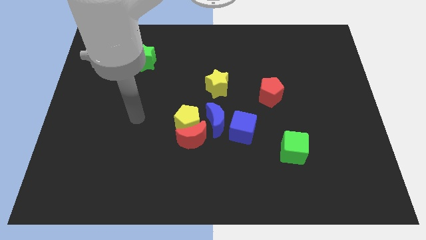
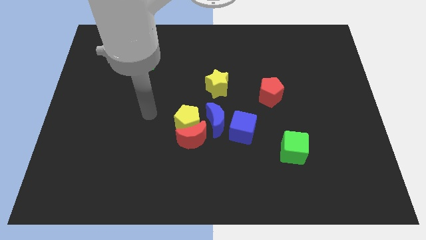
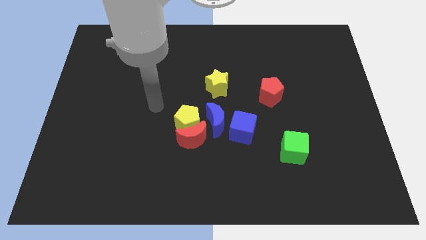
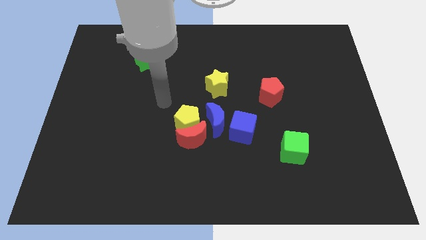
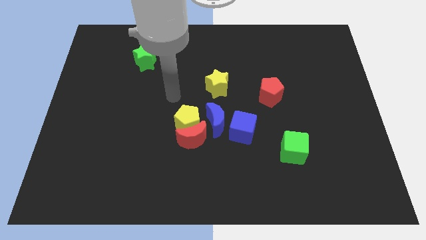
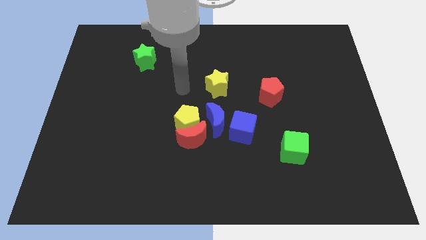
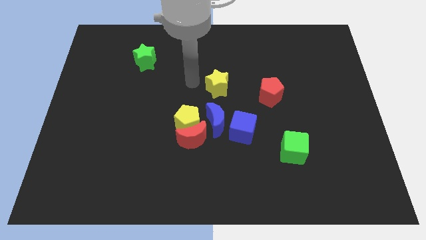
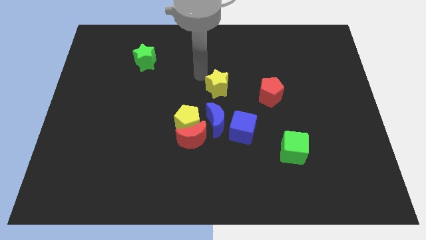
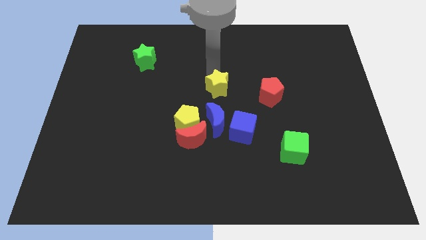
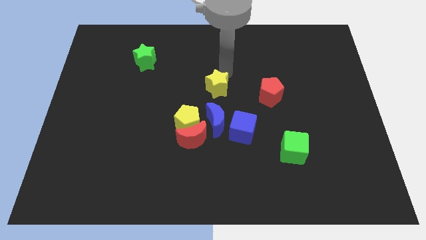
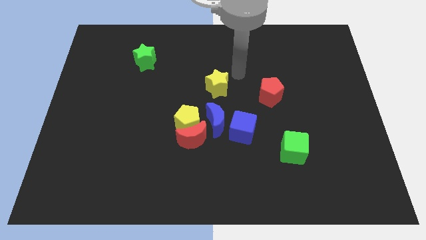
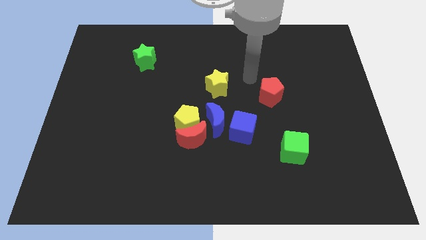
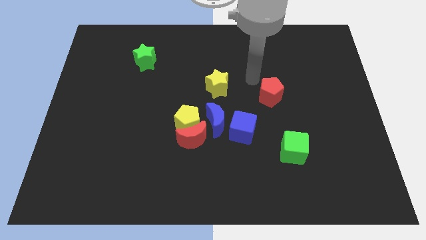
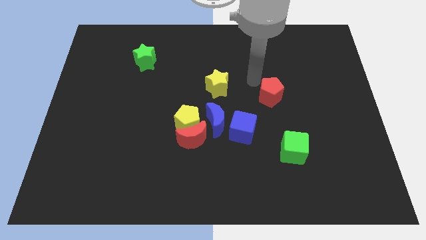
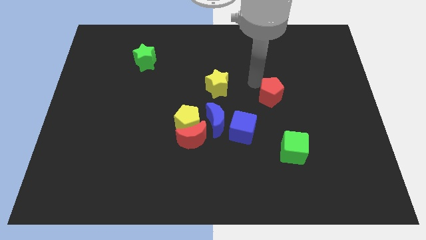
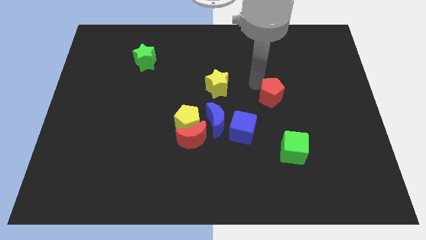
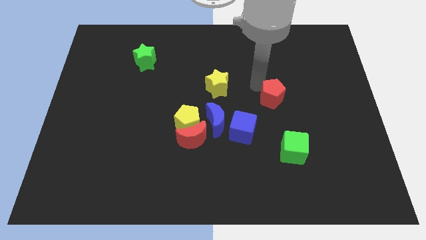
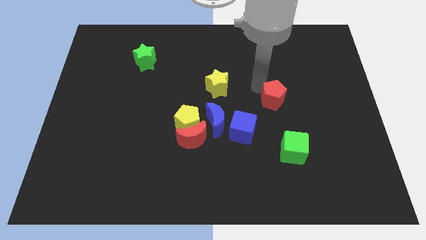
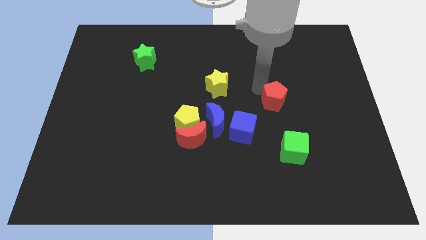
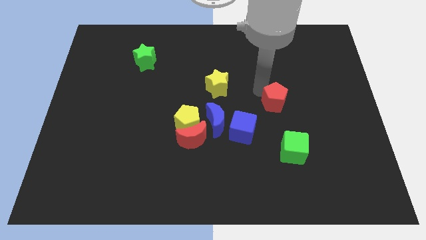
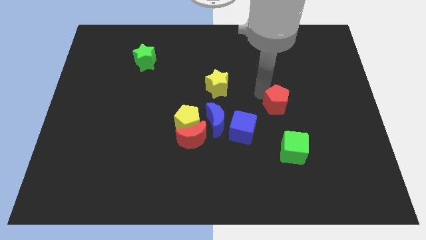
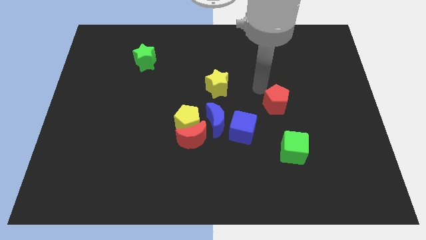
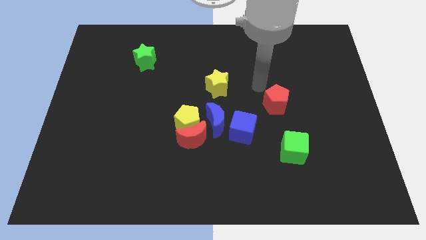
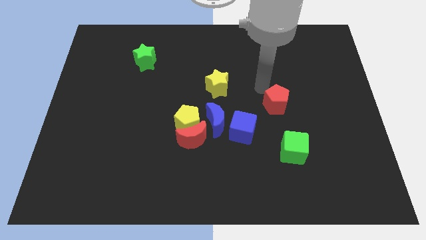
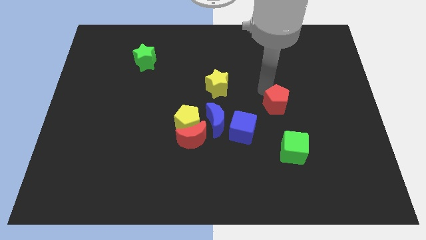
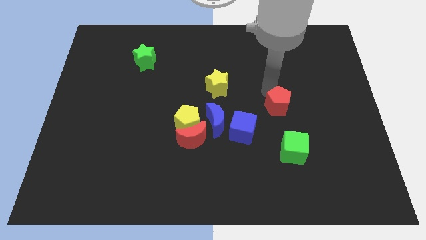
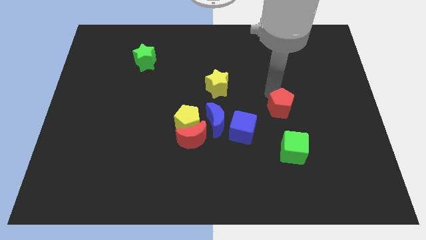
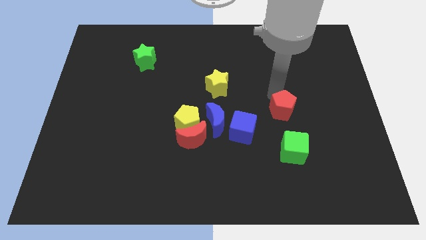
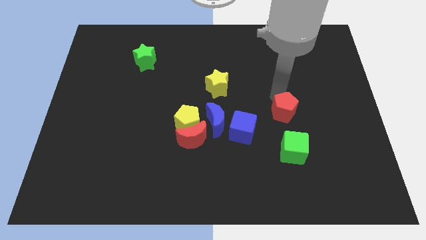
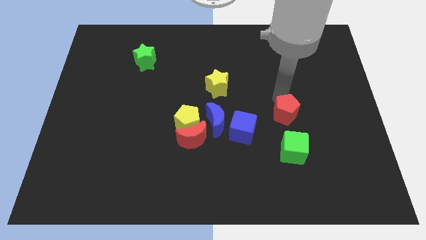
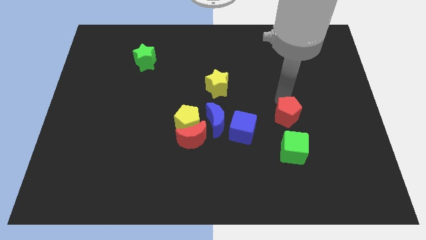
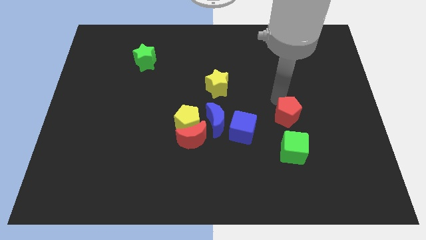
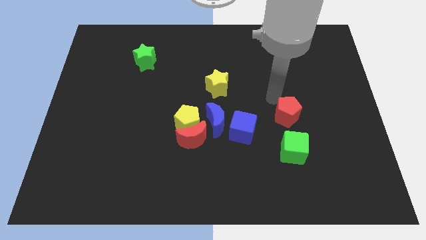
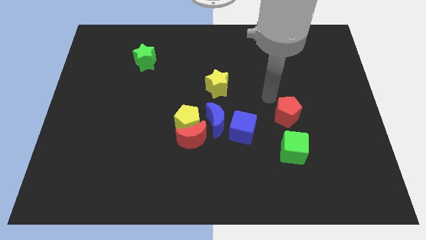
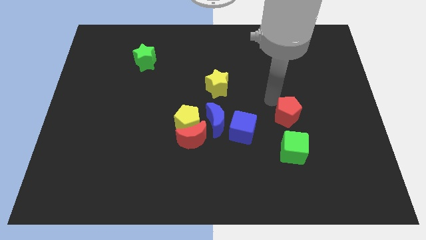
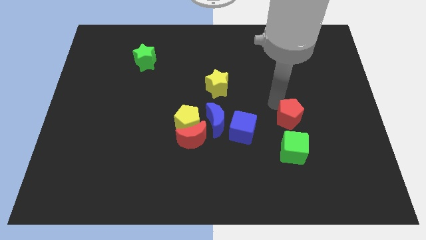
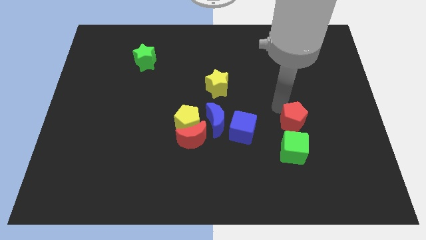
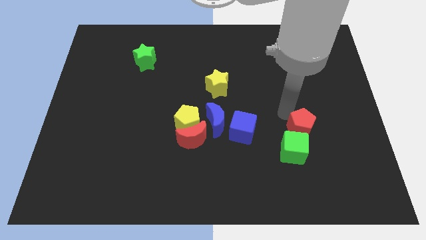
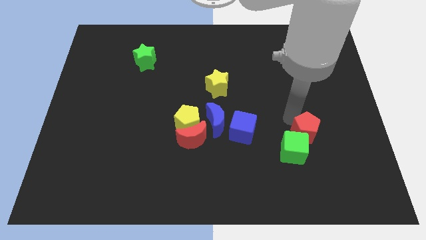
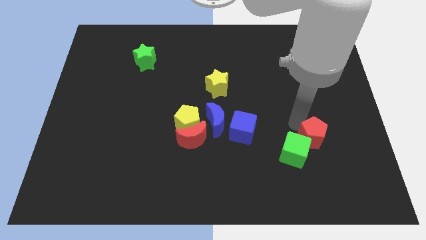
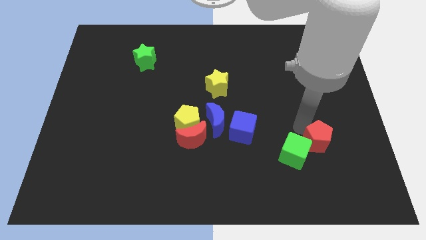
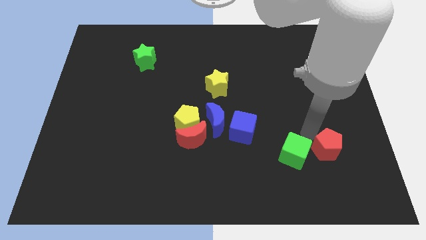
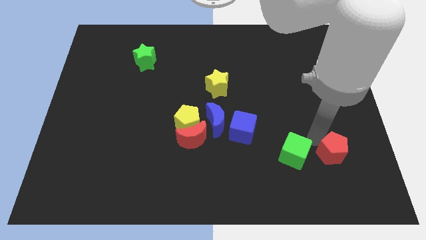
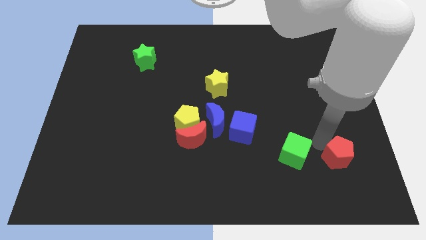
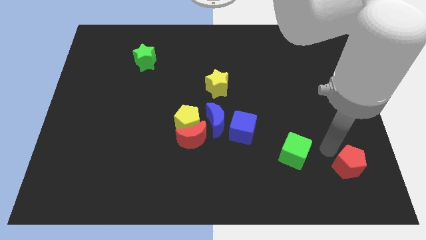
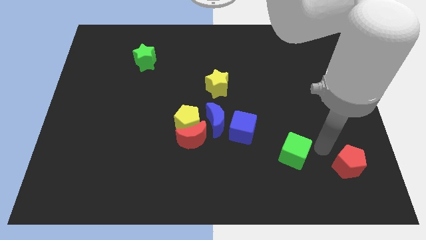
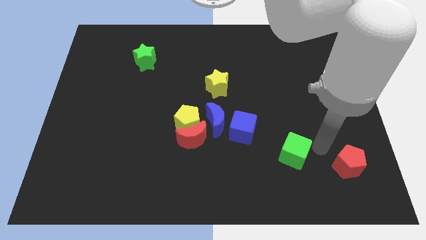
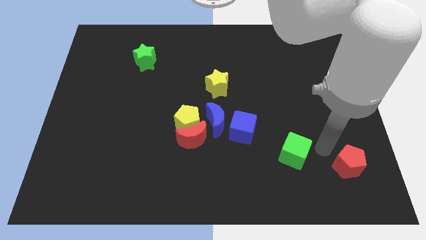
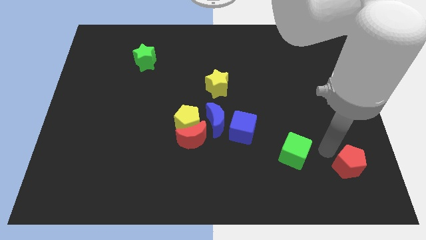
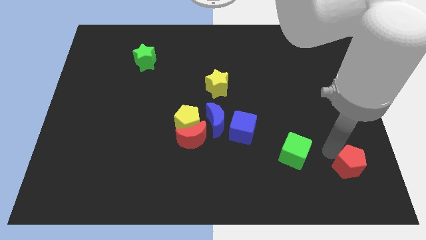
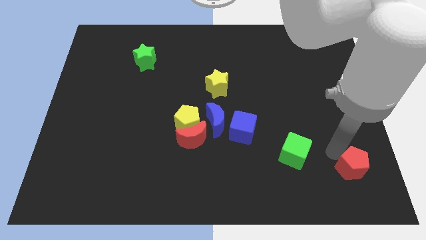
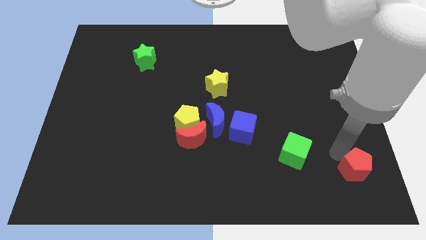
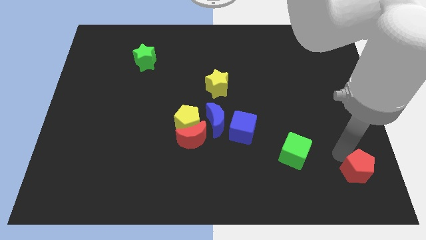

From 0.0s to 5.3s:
push the red pentagon to the bottom right
